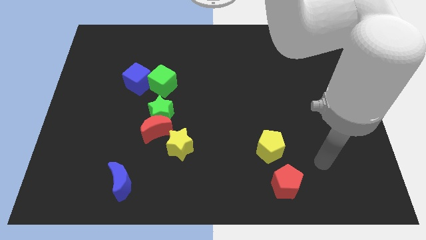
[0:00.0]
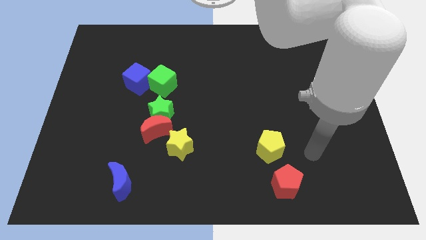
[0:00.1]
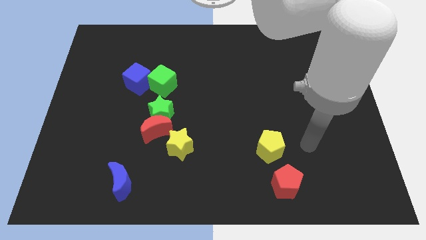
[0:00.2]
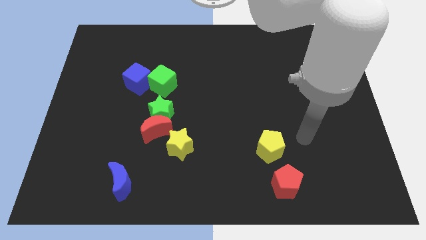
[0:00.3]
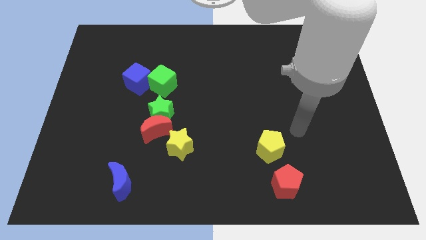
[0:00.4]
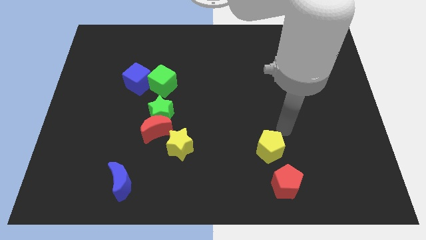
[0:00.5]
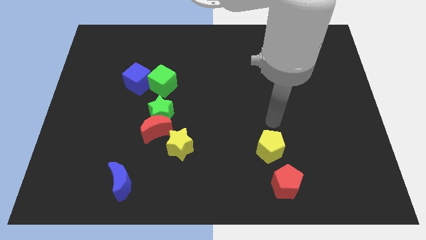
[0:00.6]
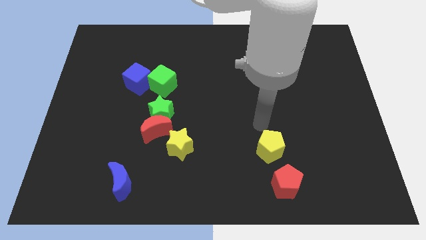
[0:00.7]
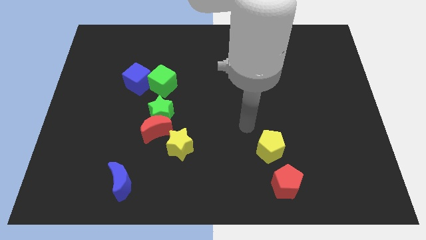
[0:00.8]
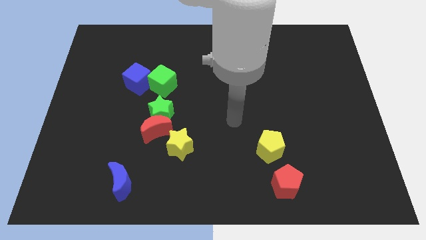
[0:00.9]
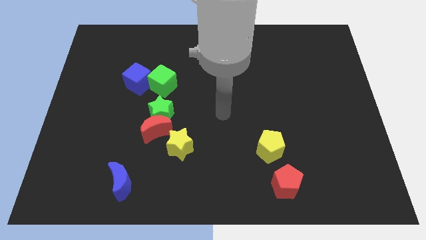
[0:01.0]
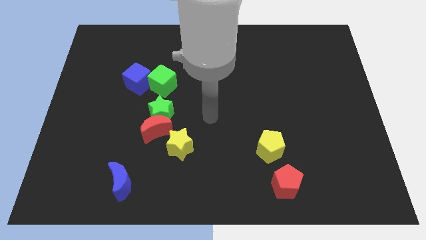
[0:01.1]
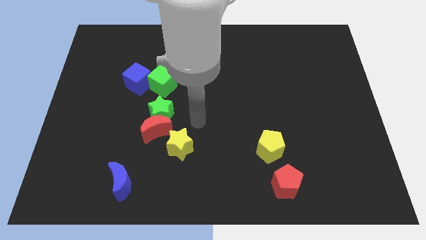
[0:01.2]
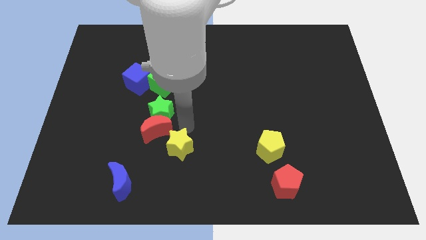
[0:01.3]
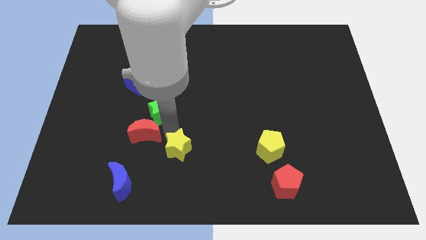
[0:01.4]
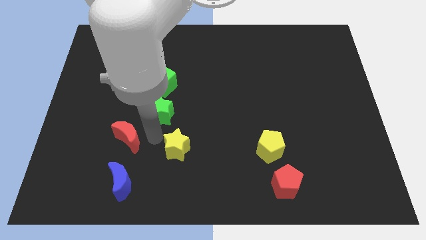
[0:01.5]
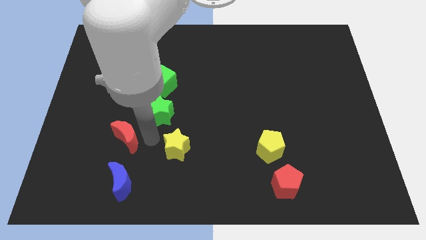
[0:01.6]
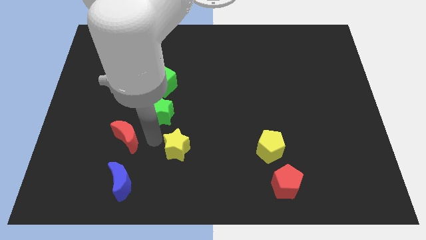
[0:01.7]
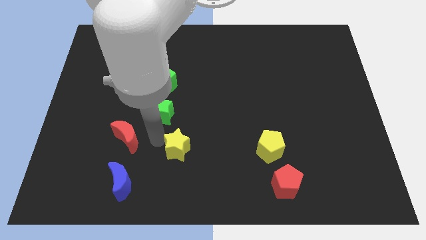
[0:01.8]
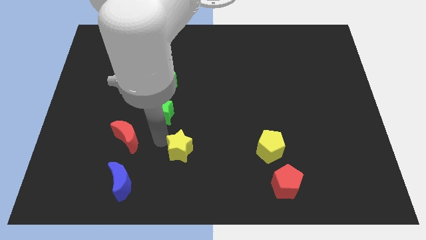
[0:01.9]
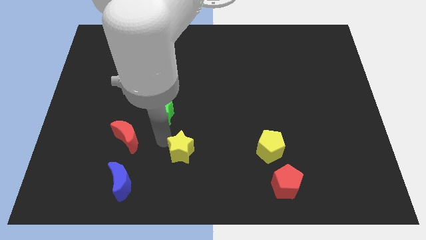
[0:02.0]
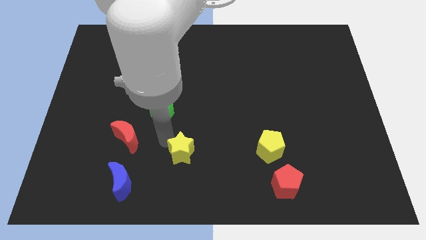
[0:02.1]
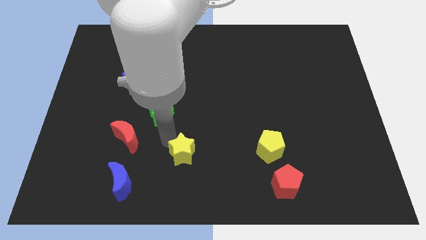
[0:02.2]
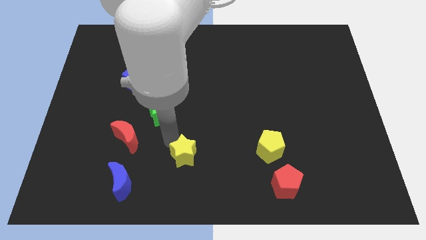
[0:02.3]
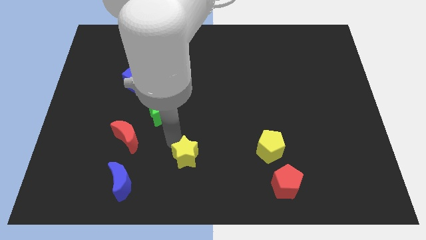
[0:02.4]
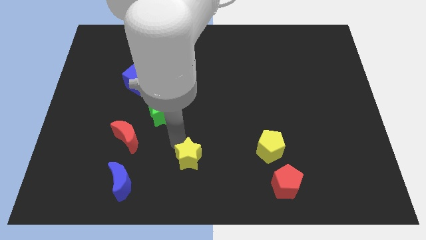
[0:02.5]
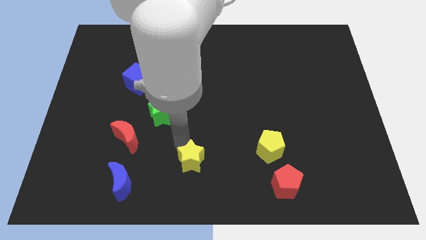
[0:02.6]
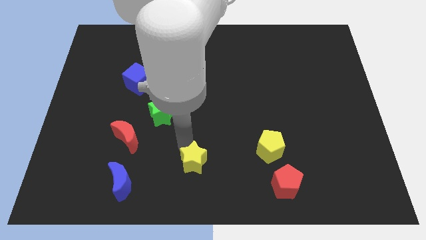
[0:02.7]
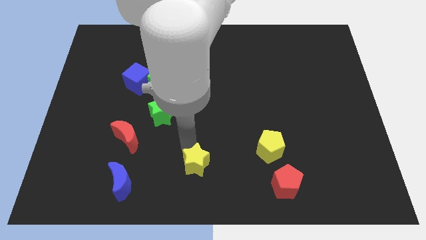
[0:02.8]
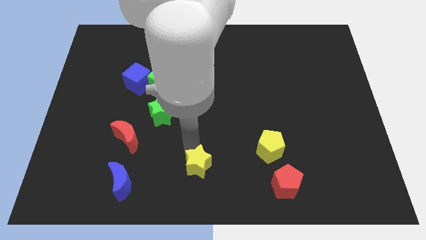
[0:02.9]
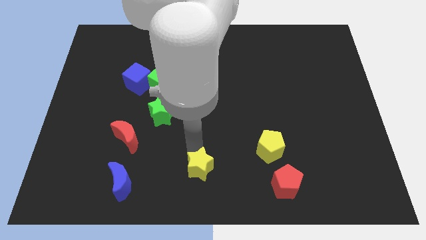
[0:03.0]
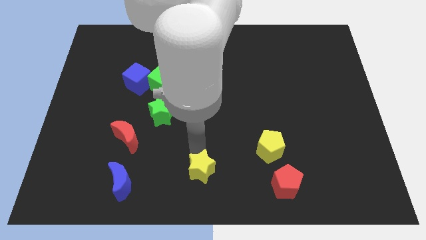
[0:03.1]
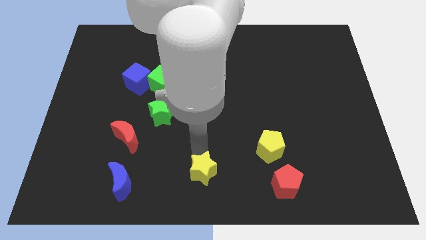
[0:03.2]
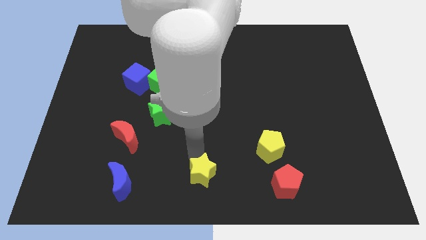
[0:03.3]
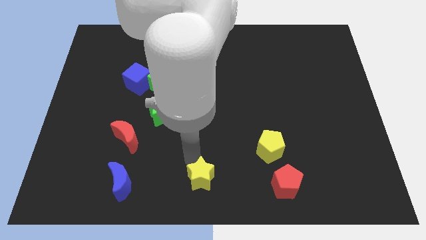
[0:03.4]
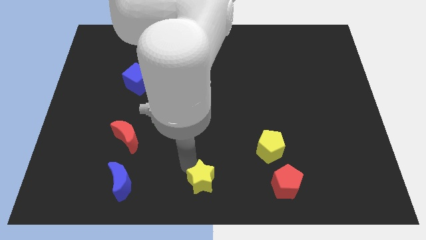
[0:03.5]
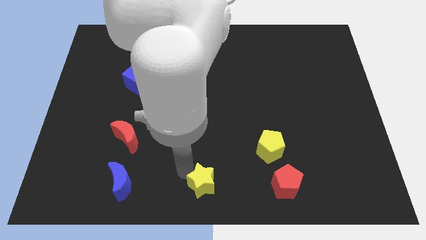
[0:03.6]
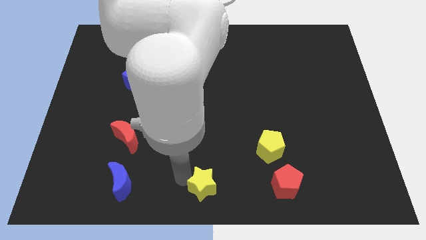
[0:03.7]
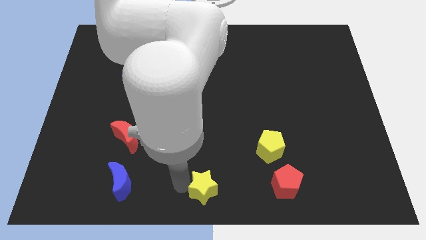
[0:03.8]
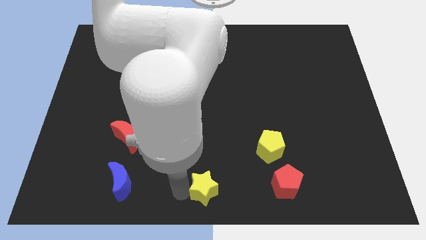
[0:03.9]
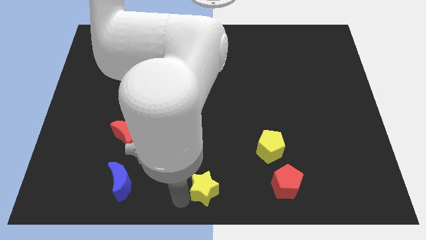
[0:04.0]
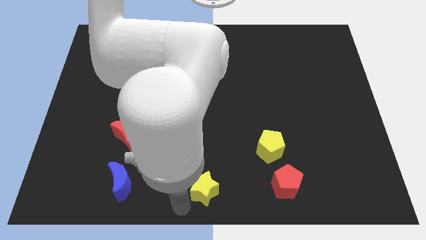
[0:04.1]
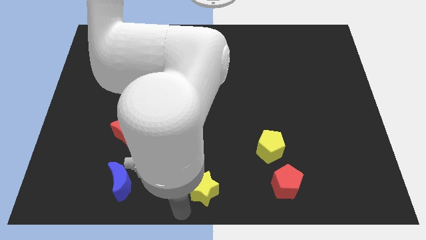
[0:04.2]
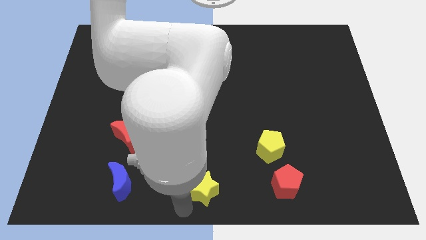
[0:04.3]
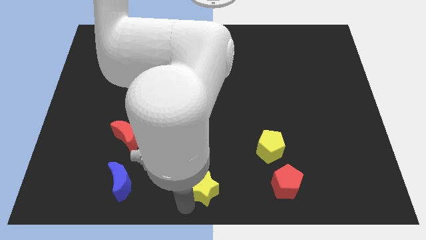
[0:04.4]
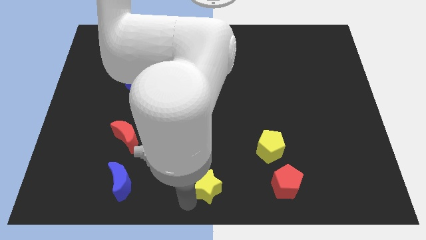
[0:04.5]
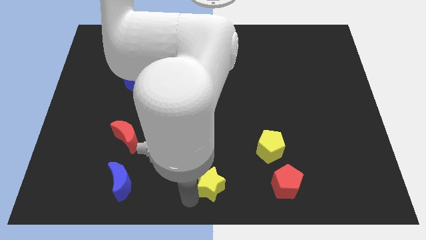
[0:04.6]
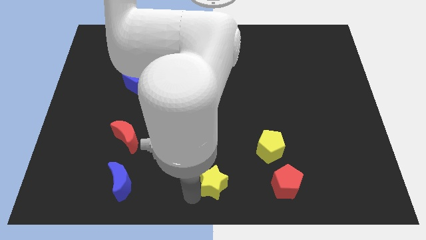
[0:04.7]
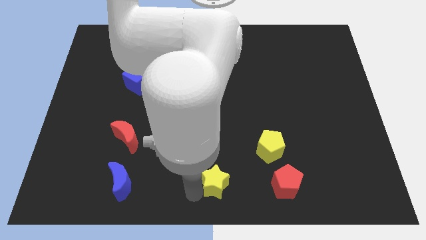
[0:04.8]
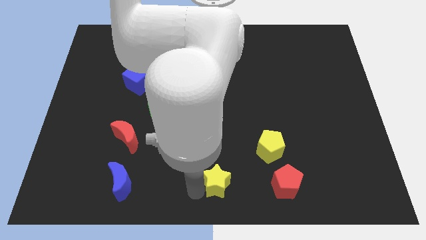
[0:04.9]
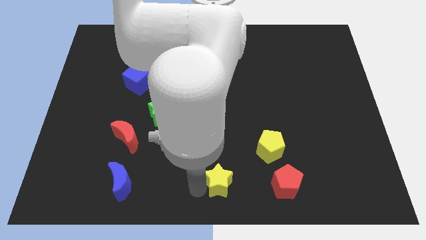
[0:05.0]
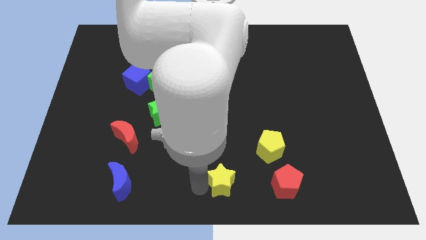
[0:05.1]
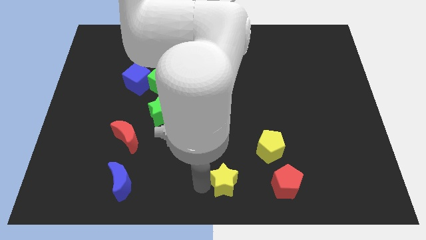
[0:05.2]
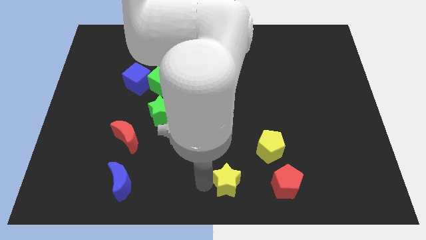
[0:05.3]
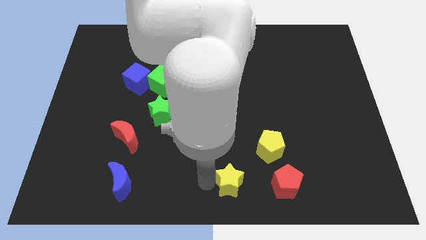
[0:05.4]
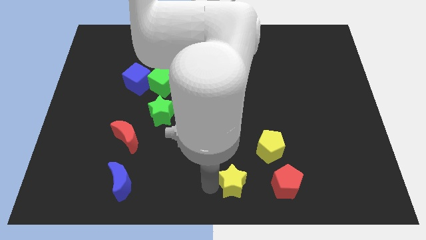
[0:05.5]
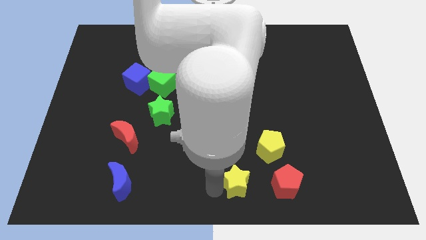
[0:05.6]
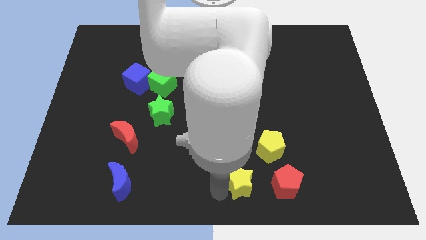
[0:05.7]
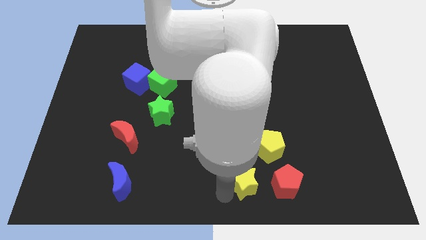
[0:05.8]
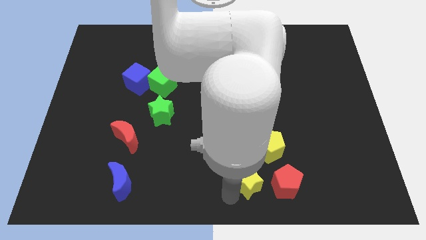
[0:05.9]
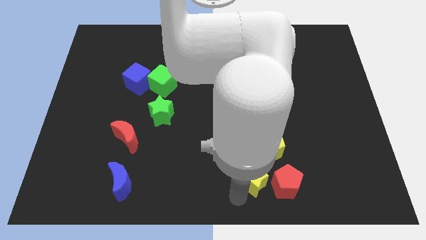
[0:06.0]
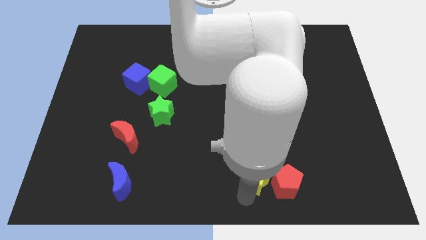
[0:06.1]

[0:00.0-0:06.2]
move the yellow star towards the red pentagon

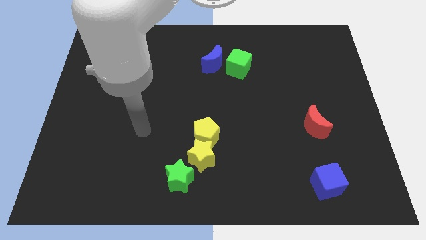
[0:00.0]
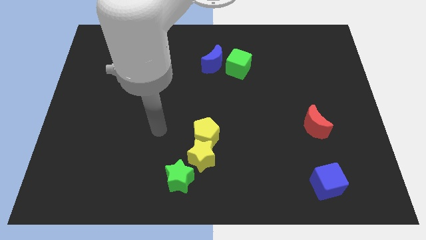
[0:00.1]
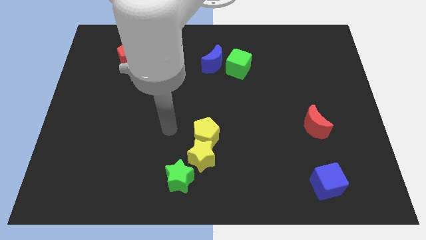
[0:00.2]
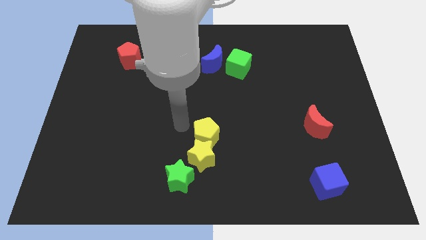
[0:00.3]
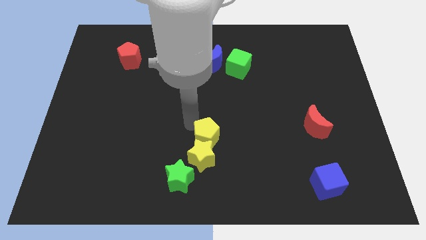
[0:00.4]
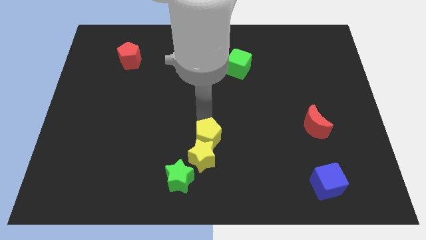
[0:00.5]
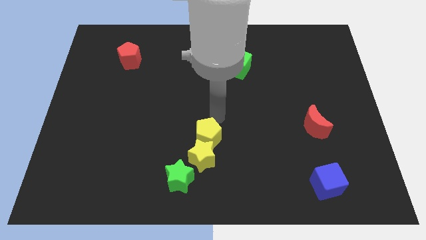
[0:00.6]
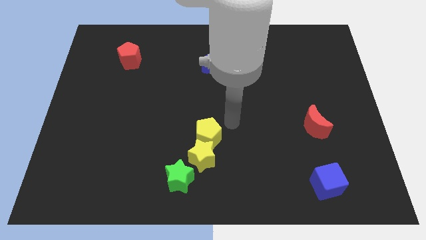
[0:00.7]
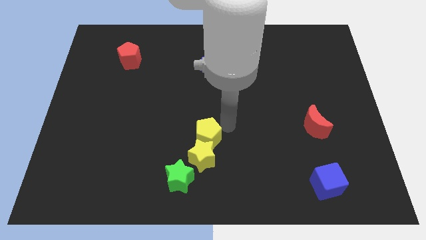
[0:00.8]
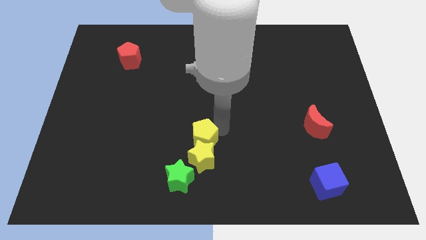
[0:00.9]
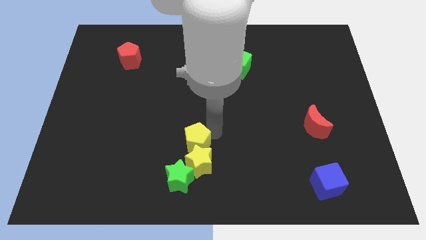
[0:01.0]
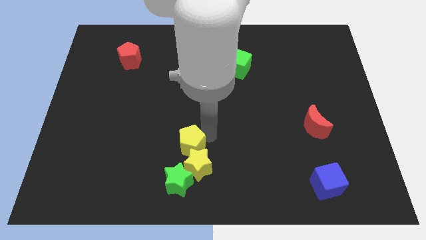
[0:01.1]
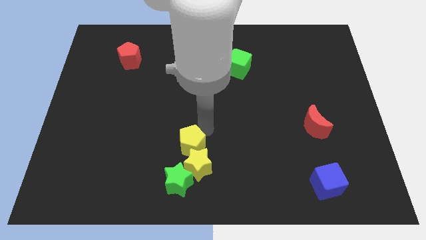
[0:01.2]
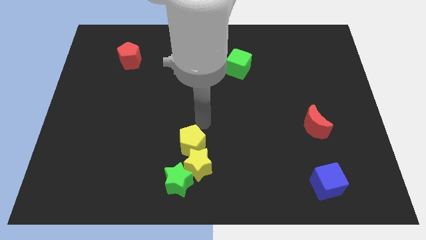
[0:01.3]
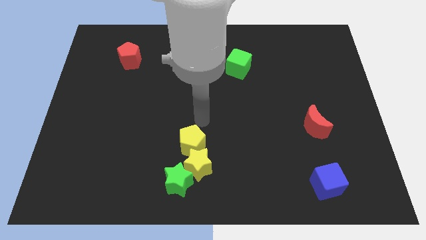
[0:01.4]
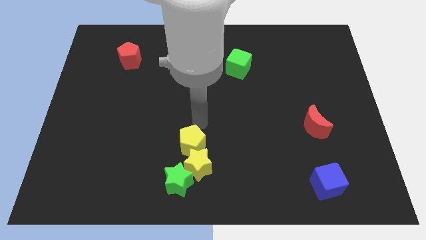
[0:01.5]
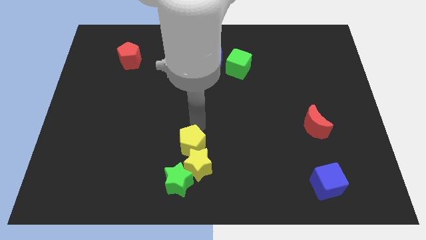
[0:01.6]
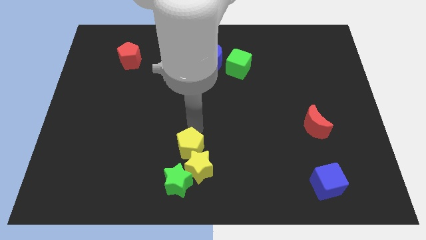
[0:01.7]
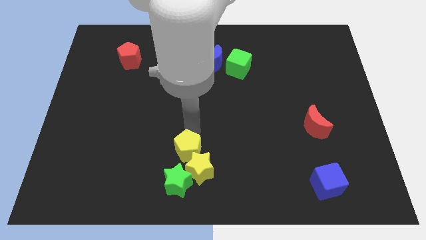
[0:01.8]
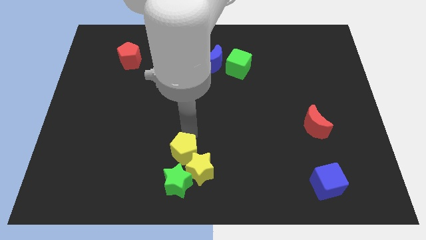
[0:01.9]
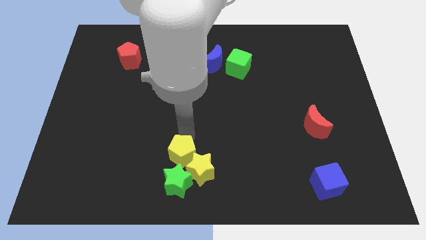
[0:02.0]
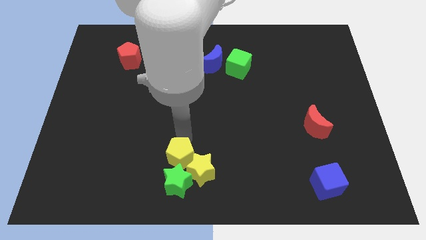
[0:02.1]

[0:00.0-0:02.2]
slide the yellow pentagon to the green star
